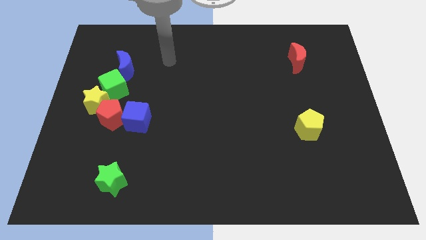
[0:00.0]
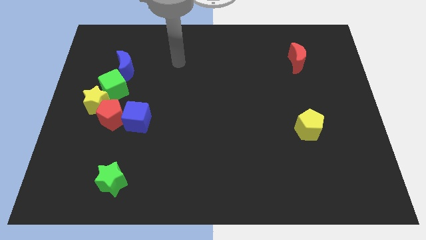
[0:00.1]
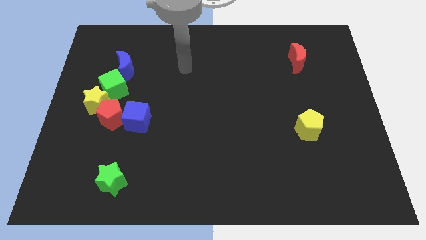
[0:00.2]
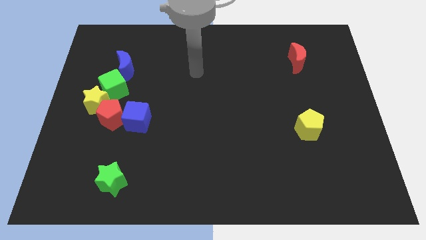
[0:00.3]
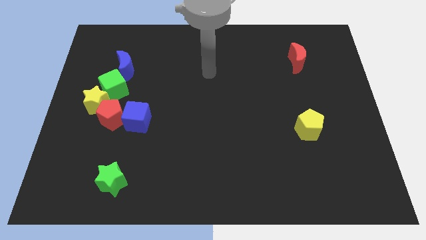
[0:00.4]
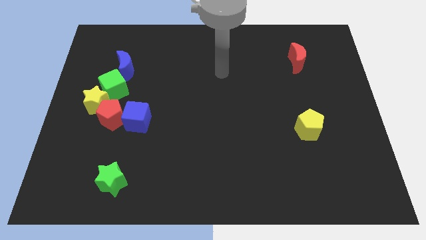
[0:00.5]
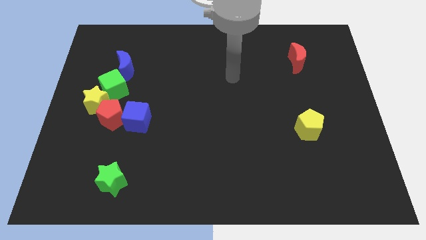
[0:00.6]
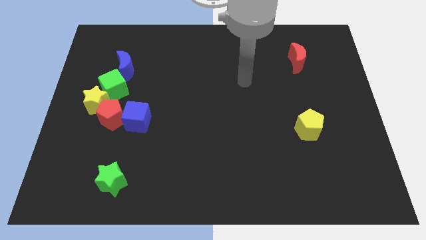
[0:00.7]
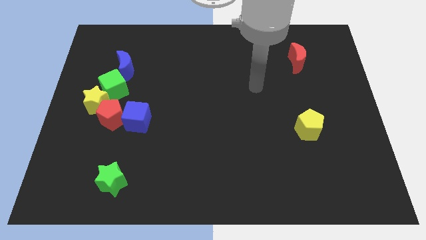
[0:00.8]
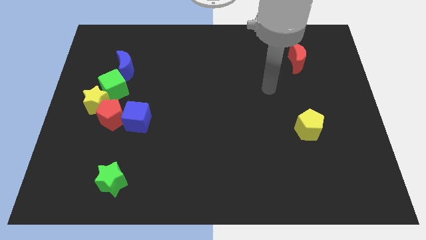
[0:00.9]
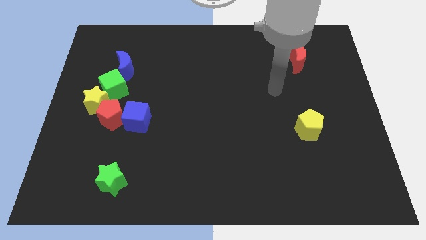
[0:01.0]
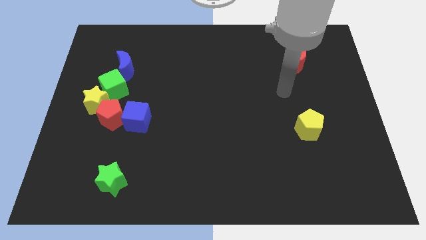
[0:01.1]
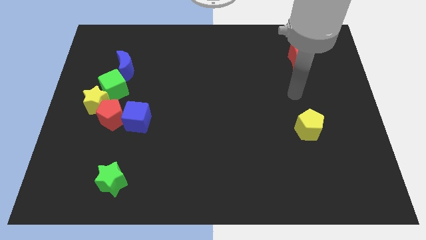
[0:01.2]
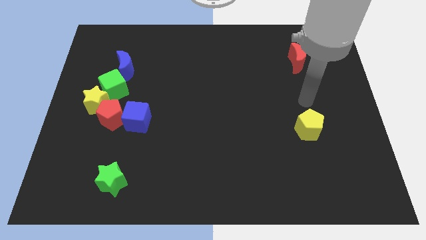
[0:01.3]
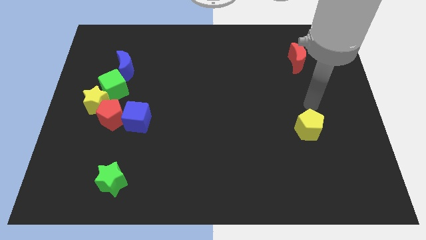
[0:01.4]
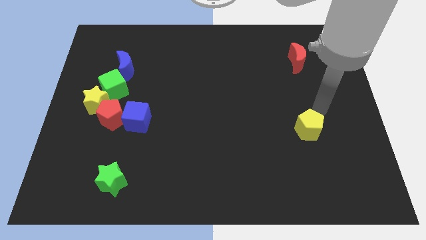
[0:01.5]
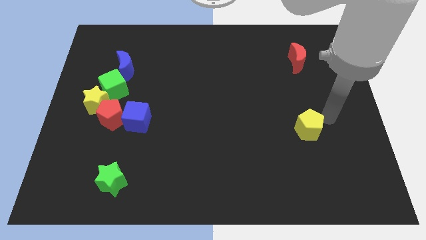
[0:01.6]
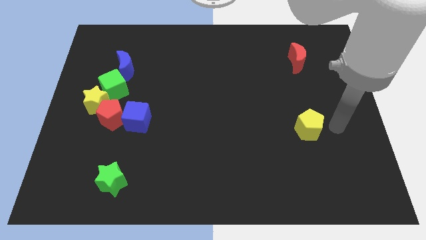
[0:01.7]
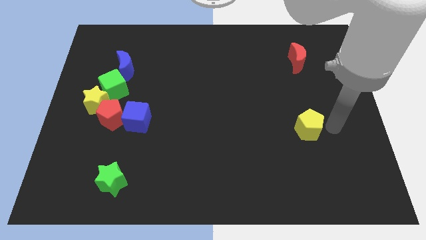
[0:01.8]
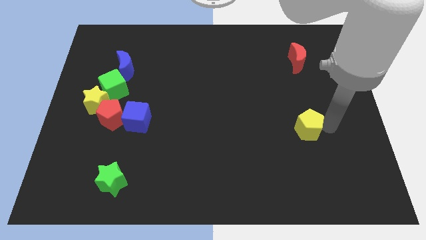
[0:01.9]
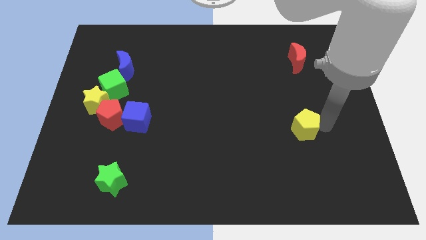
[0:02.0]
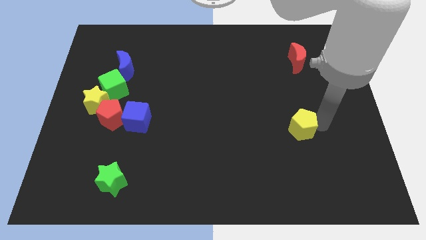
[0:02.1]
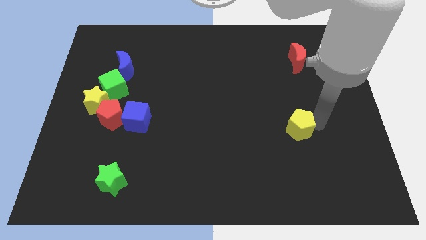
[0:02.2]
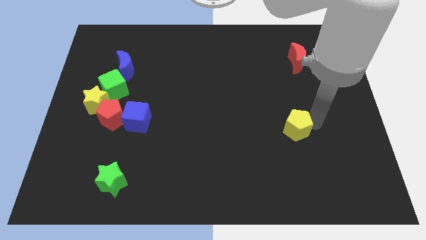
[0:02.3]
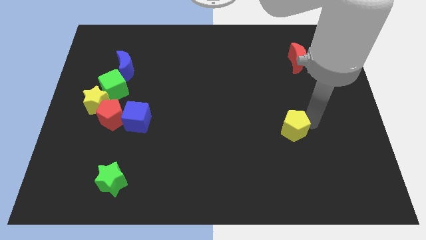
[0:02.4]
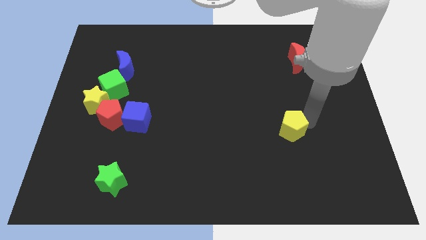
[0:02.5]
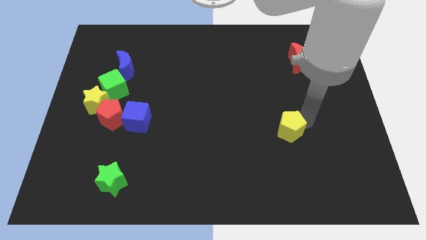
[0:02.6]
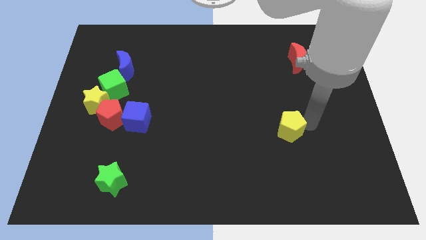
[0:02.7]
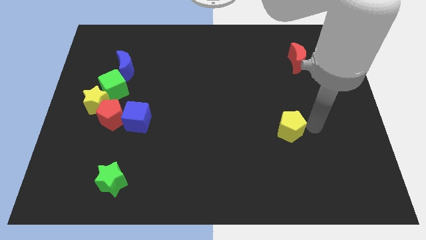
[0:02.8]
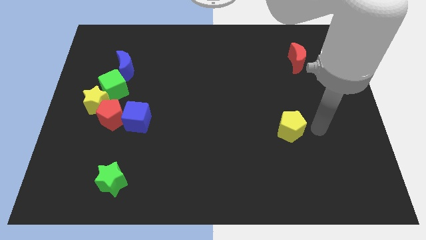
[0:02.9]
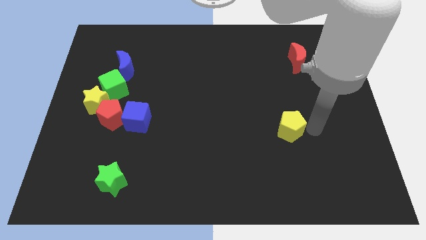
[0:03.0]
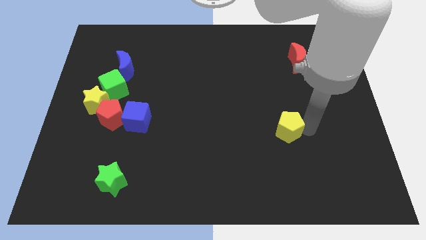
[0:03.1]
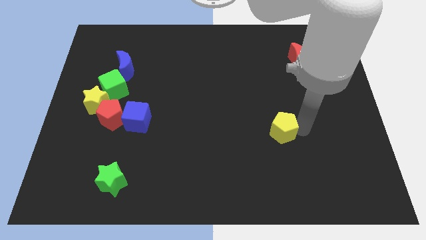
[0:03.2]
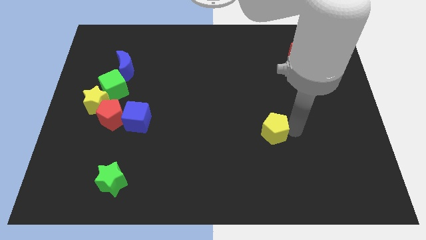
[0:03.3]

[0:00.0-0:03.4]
slide the yellow pentagon left a little bit

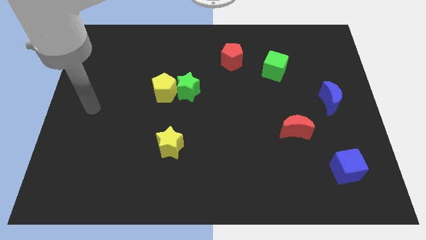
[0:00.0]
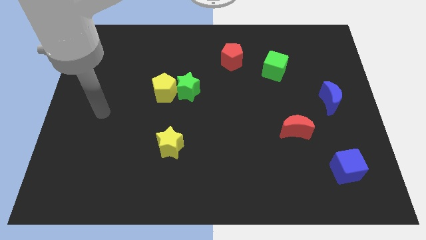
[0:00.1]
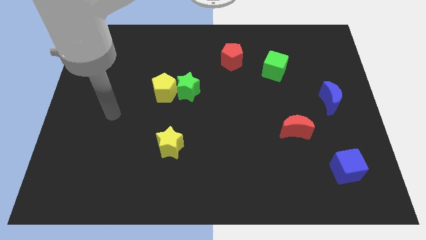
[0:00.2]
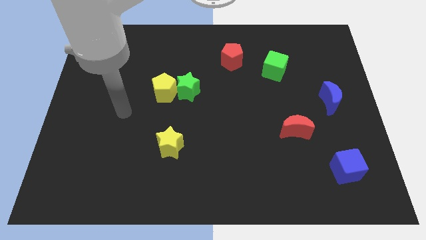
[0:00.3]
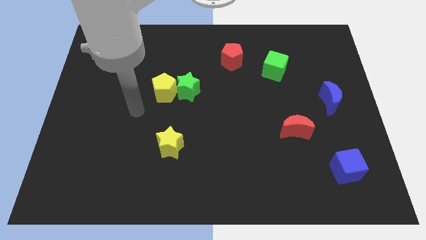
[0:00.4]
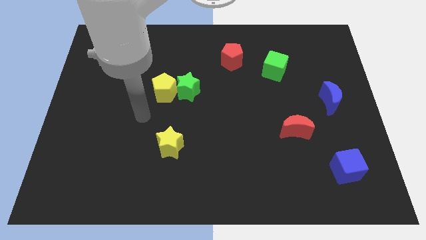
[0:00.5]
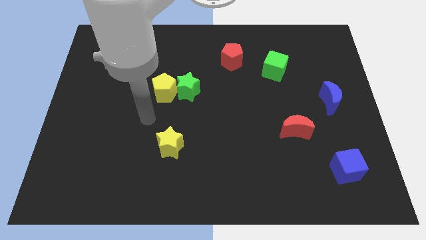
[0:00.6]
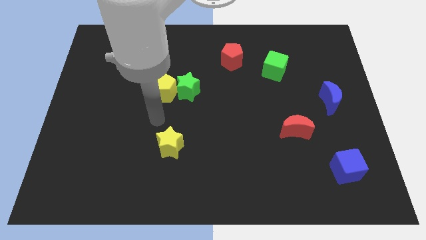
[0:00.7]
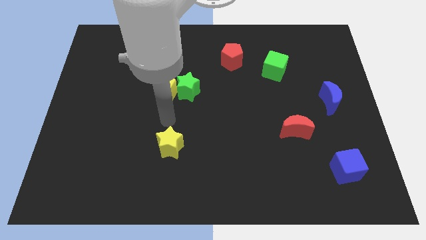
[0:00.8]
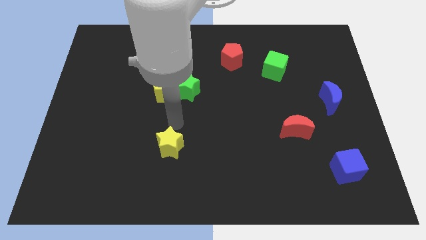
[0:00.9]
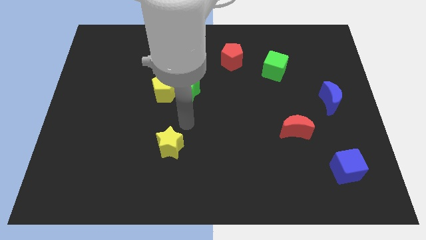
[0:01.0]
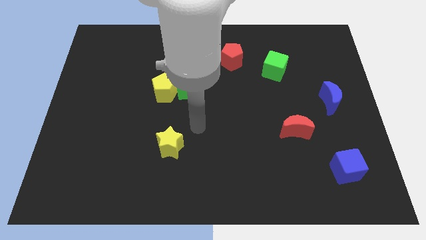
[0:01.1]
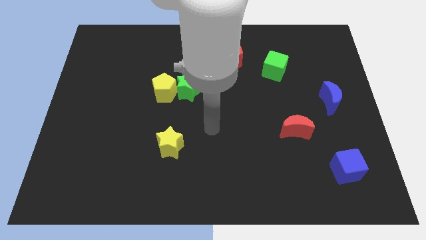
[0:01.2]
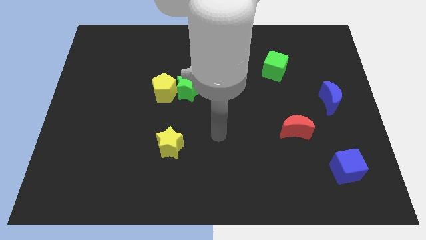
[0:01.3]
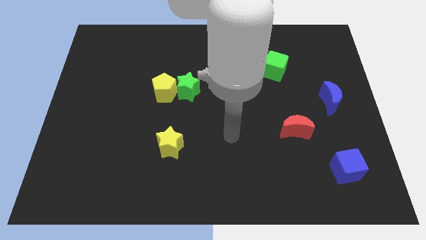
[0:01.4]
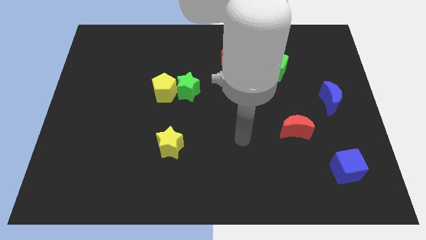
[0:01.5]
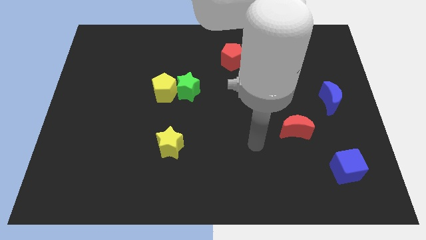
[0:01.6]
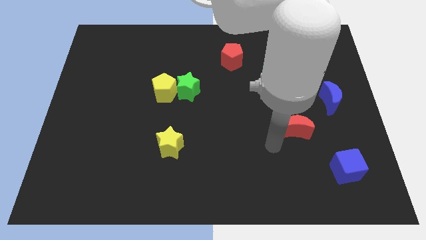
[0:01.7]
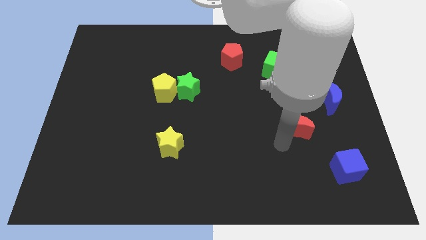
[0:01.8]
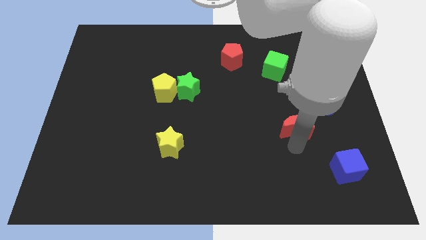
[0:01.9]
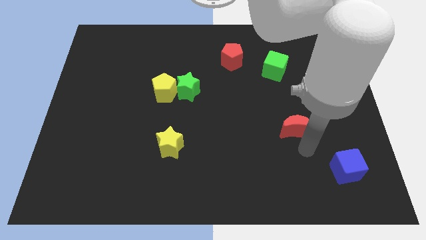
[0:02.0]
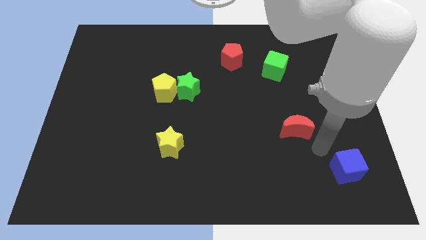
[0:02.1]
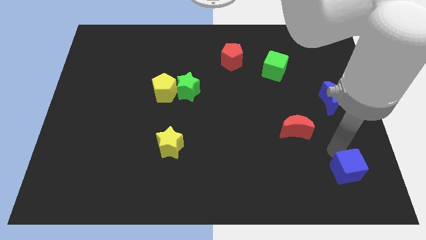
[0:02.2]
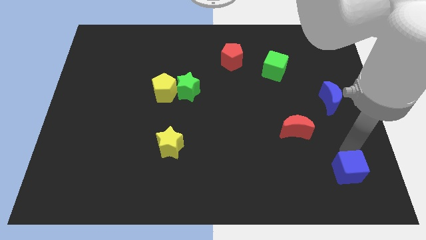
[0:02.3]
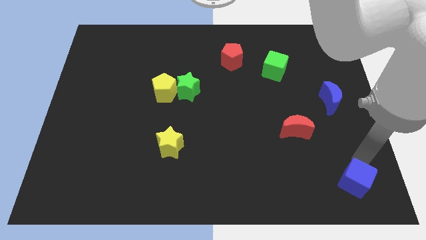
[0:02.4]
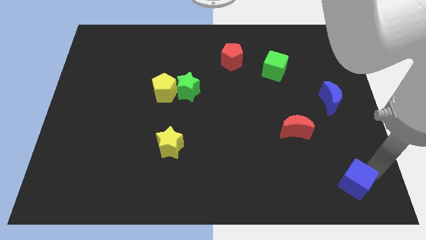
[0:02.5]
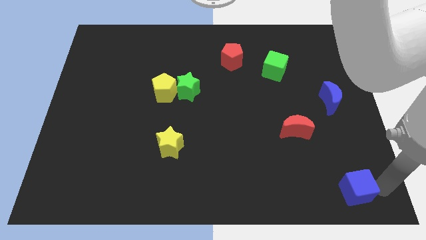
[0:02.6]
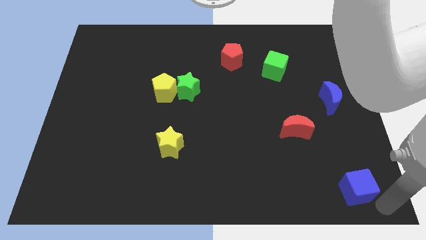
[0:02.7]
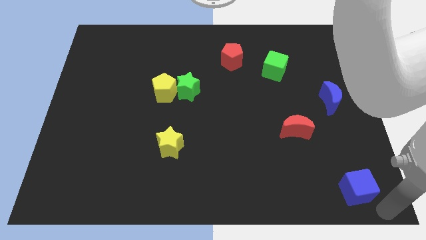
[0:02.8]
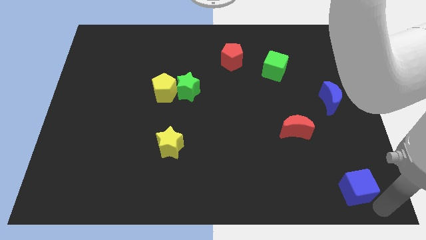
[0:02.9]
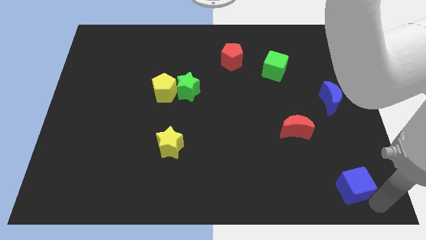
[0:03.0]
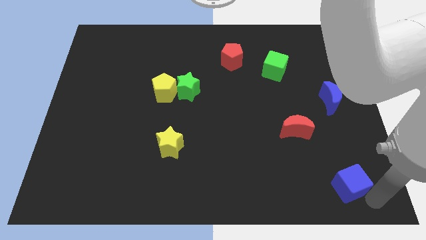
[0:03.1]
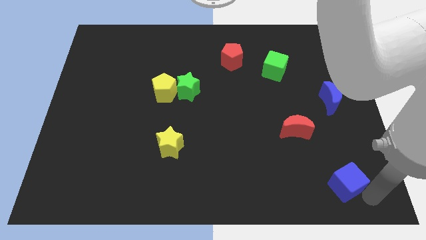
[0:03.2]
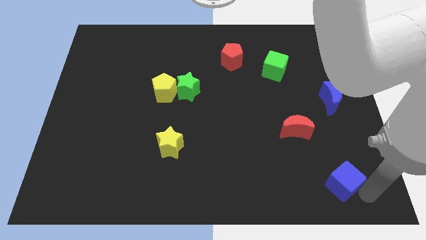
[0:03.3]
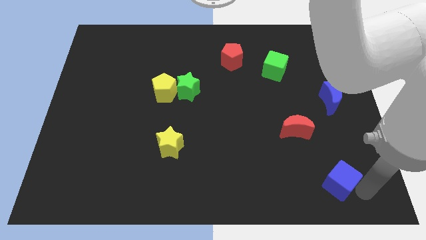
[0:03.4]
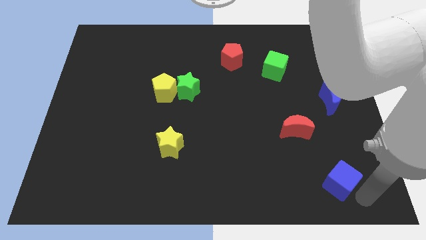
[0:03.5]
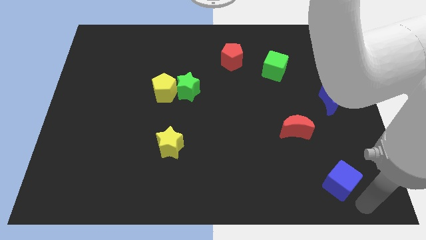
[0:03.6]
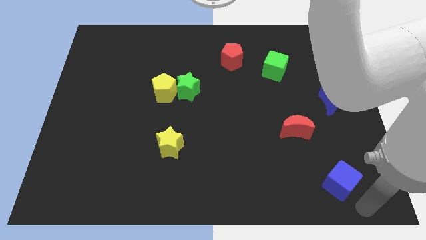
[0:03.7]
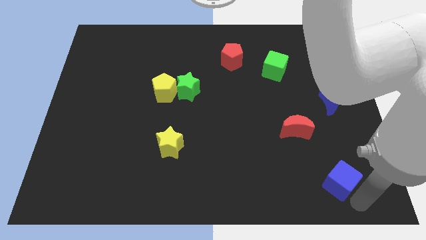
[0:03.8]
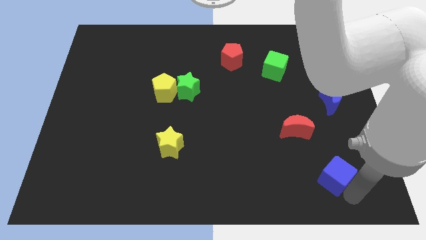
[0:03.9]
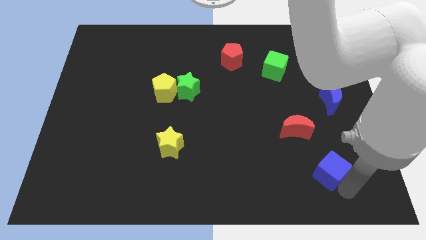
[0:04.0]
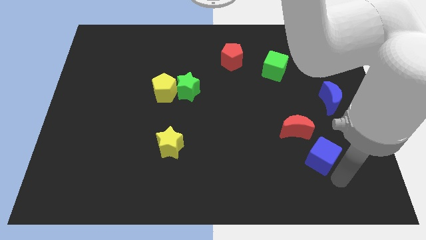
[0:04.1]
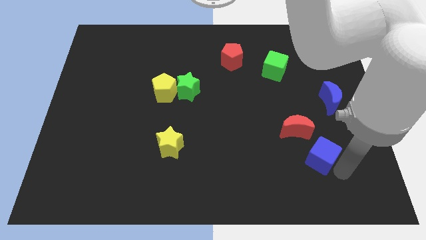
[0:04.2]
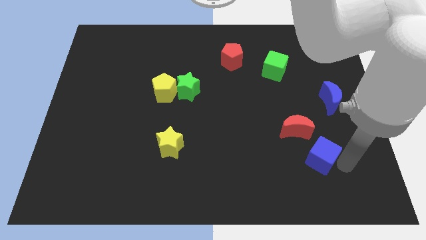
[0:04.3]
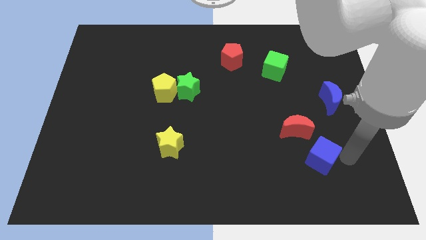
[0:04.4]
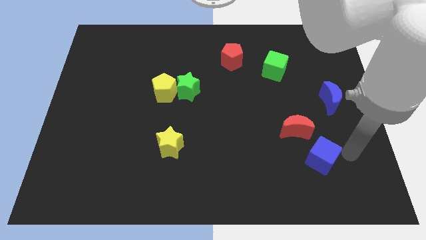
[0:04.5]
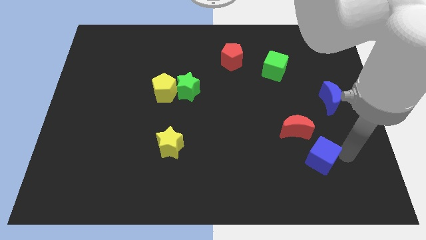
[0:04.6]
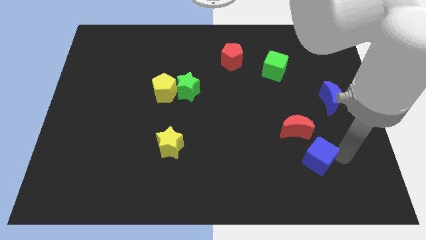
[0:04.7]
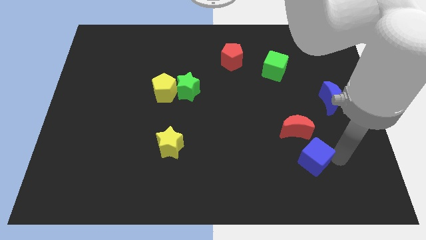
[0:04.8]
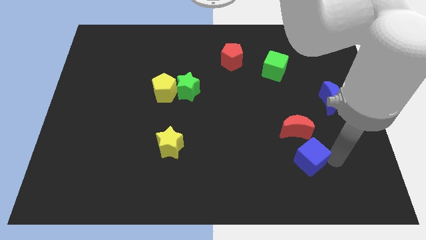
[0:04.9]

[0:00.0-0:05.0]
push the blue cube left somewhat

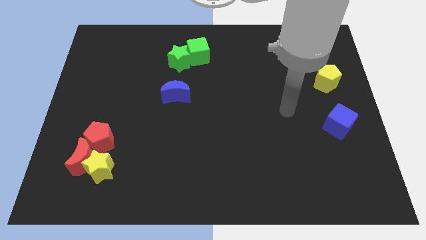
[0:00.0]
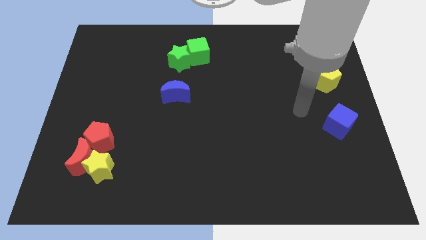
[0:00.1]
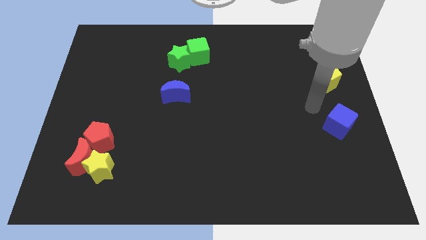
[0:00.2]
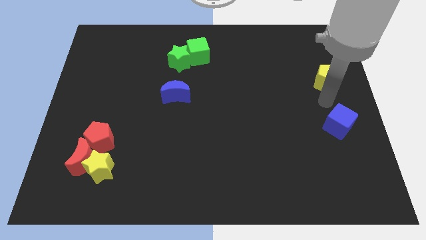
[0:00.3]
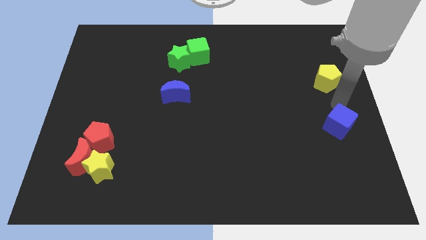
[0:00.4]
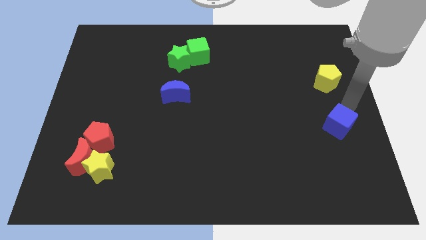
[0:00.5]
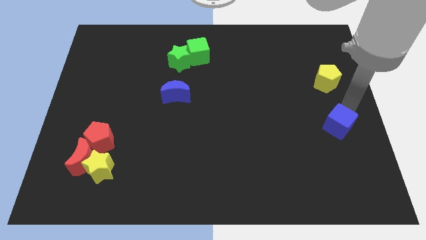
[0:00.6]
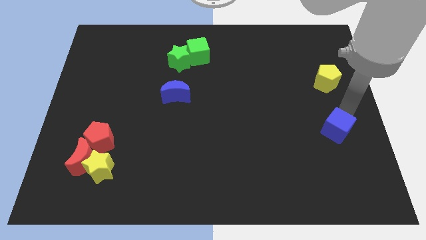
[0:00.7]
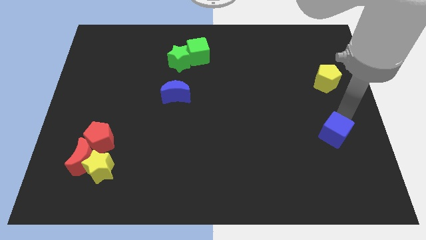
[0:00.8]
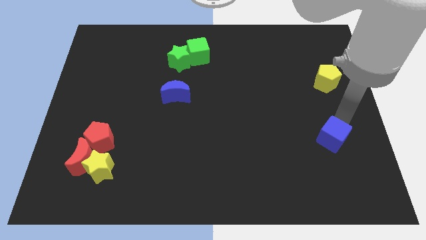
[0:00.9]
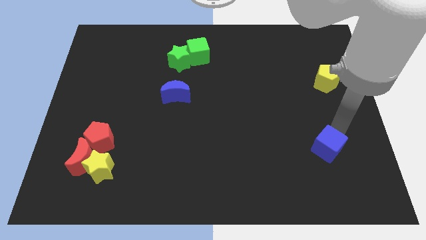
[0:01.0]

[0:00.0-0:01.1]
slide the blue cube slightly downwards and left diagonally
